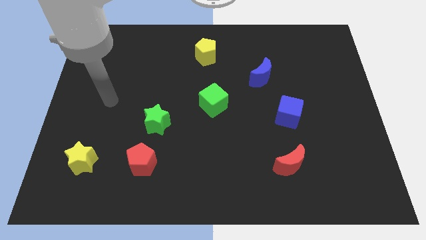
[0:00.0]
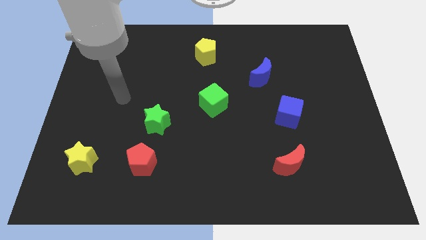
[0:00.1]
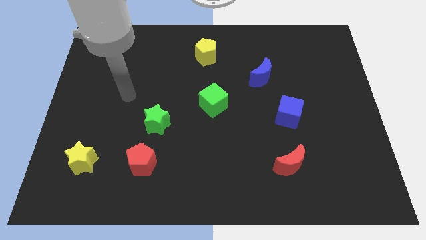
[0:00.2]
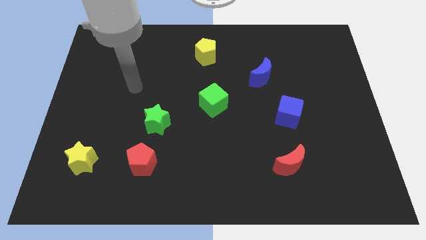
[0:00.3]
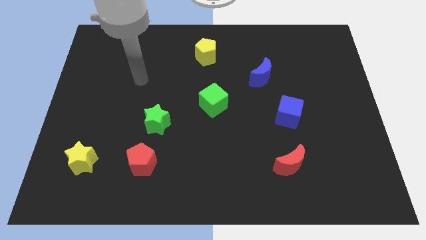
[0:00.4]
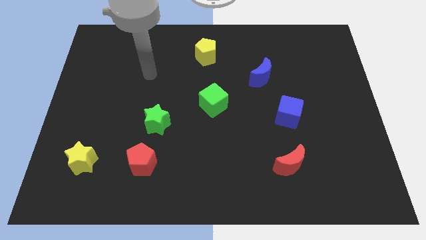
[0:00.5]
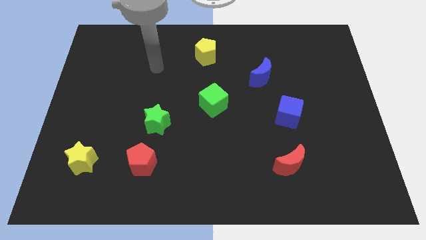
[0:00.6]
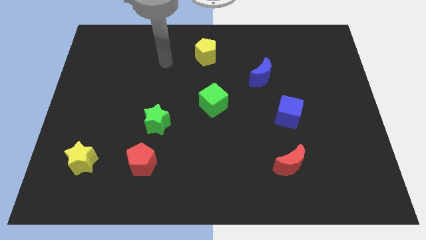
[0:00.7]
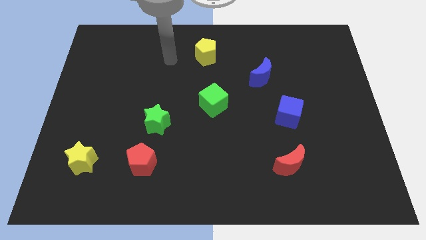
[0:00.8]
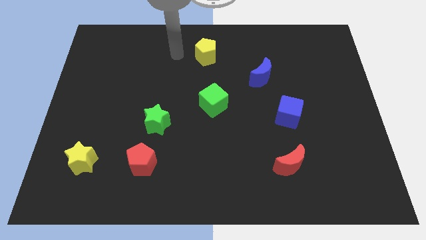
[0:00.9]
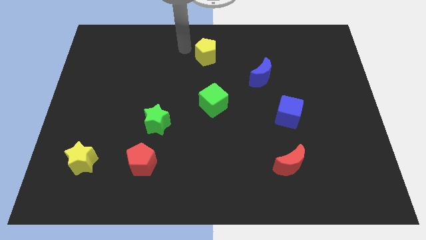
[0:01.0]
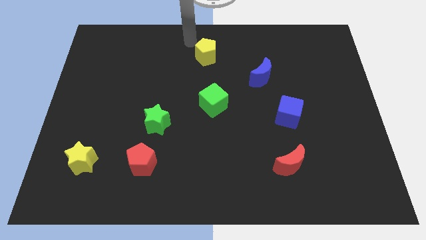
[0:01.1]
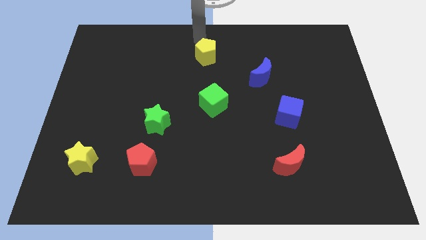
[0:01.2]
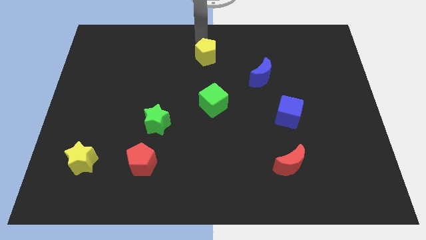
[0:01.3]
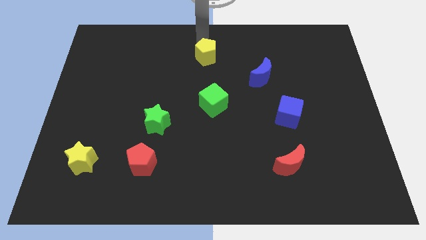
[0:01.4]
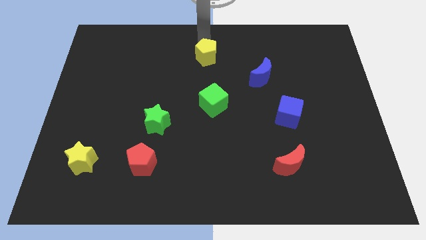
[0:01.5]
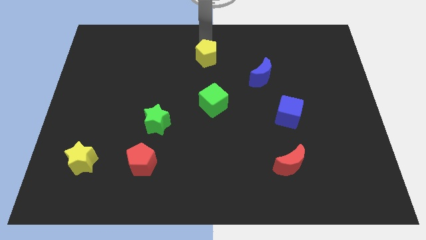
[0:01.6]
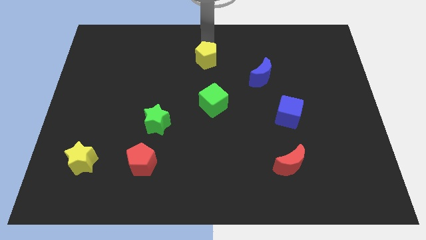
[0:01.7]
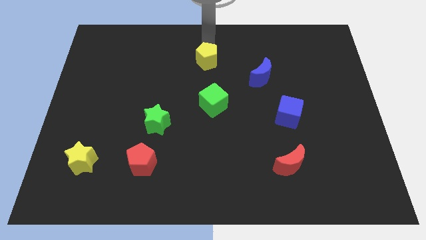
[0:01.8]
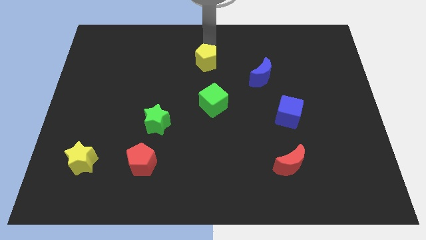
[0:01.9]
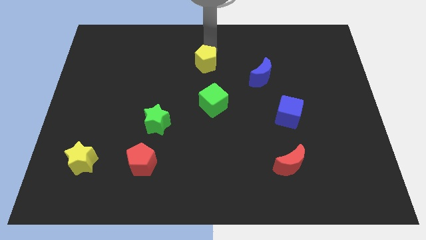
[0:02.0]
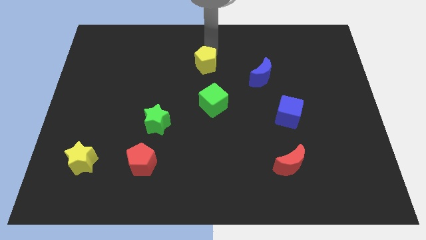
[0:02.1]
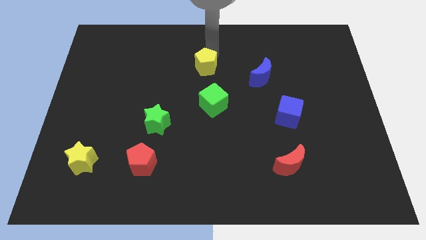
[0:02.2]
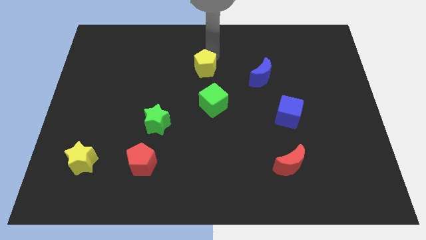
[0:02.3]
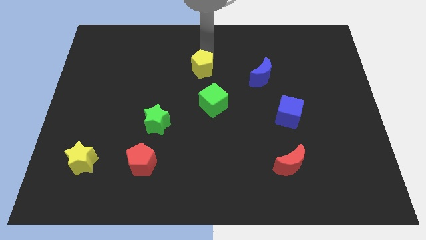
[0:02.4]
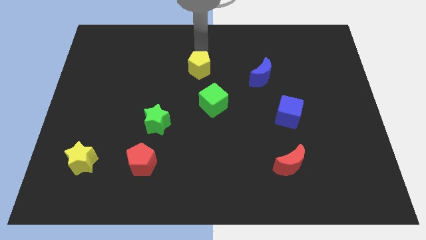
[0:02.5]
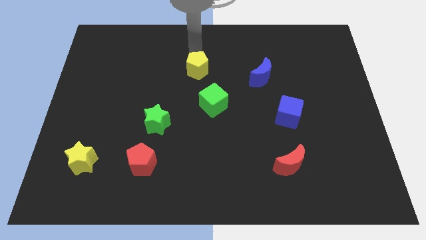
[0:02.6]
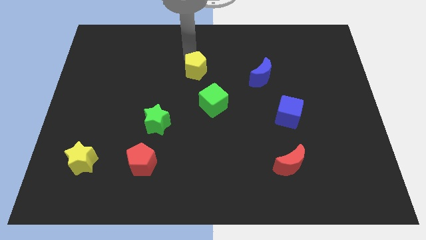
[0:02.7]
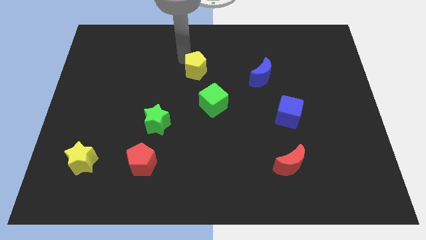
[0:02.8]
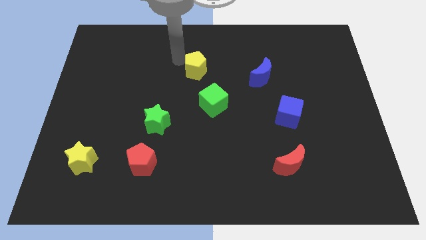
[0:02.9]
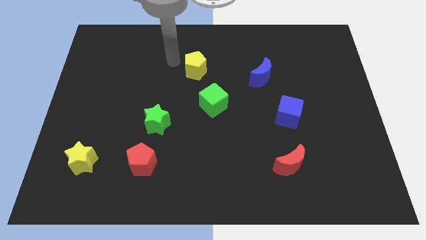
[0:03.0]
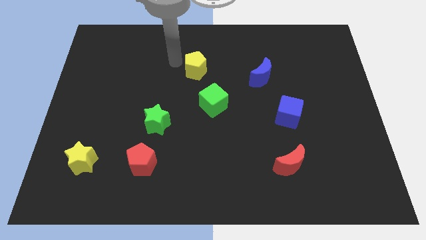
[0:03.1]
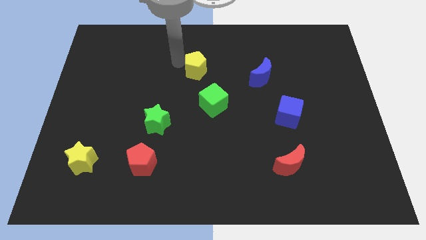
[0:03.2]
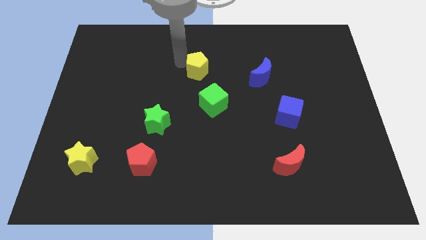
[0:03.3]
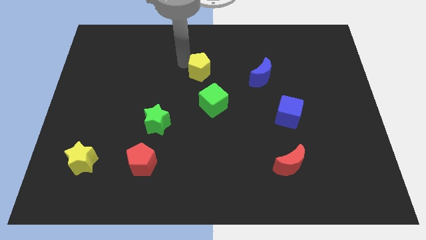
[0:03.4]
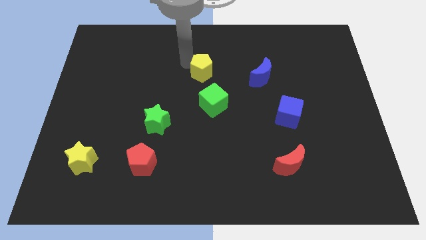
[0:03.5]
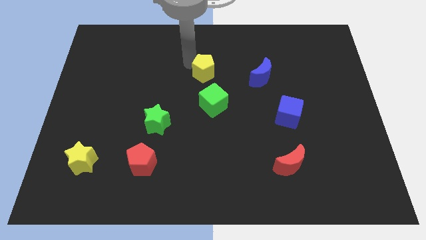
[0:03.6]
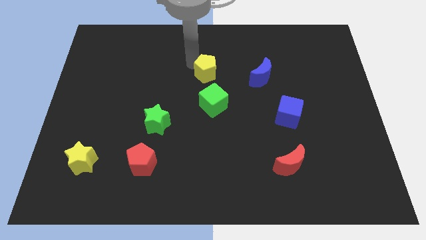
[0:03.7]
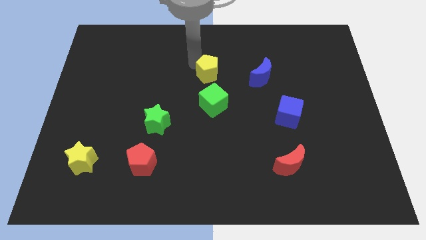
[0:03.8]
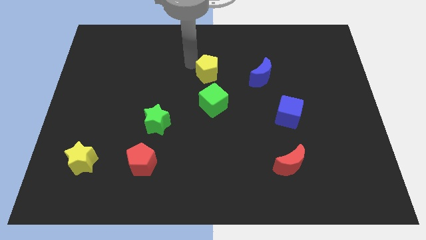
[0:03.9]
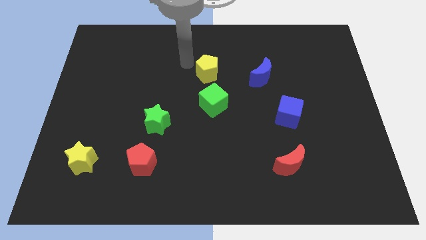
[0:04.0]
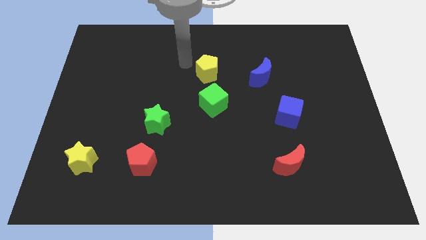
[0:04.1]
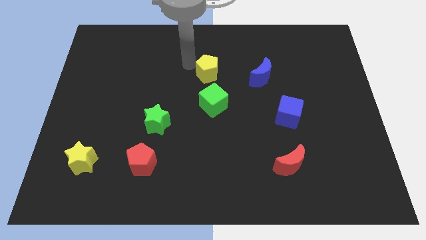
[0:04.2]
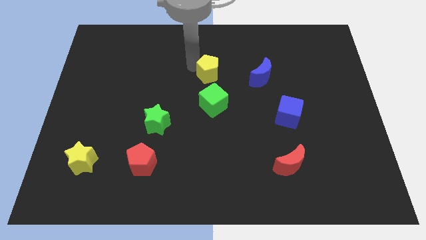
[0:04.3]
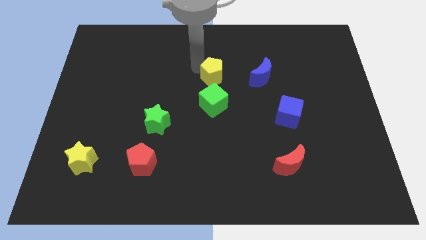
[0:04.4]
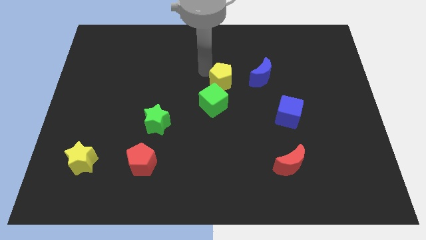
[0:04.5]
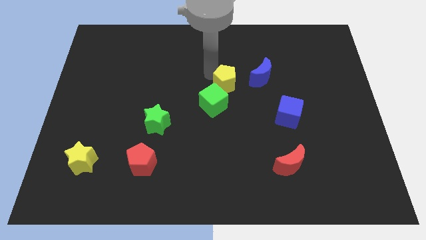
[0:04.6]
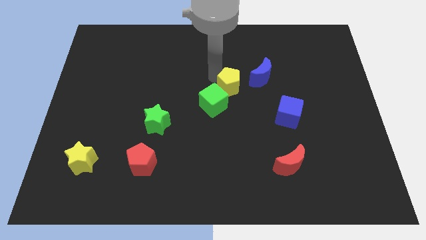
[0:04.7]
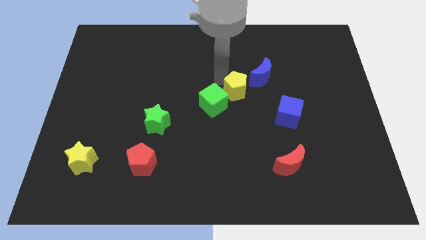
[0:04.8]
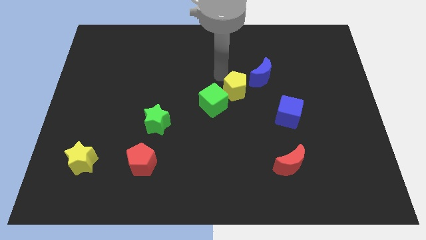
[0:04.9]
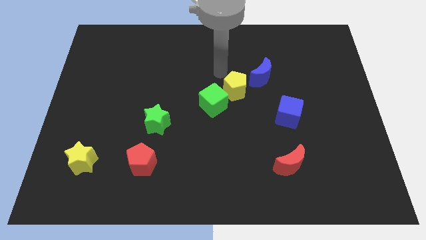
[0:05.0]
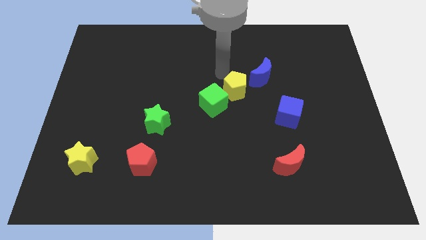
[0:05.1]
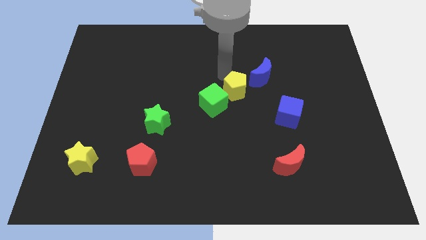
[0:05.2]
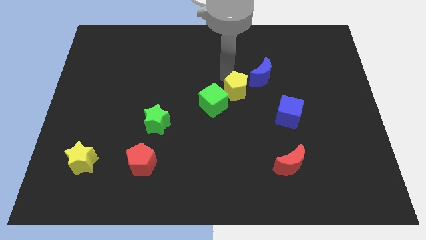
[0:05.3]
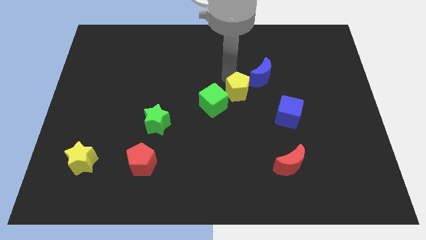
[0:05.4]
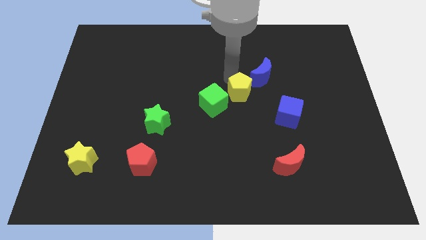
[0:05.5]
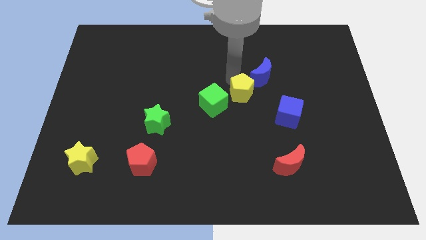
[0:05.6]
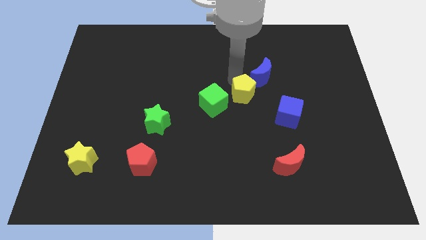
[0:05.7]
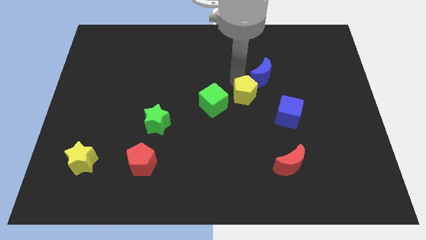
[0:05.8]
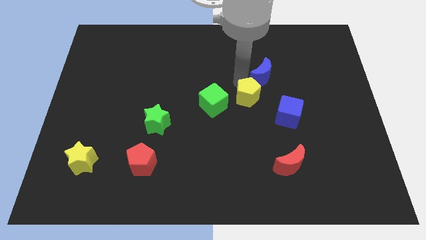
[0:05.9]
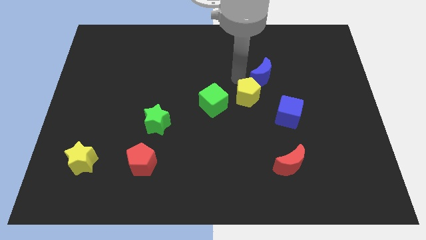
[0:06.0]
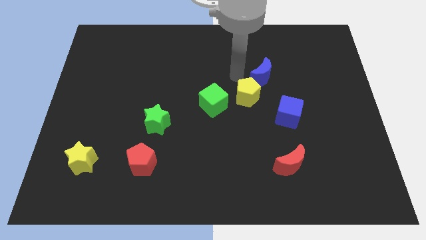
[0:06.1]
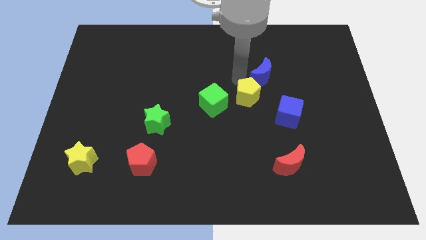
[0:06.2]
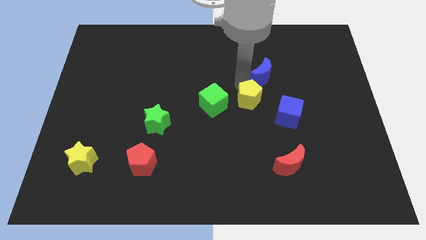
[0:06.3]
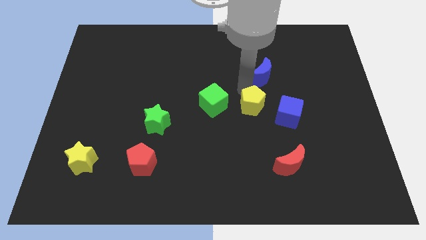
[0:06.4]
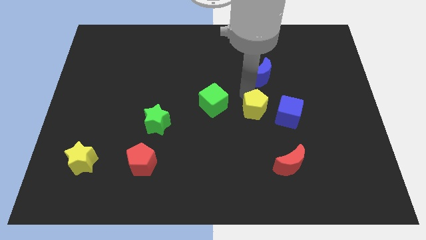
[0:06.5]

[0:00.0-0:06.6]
slide the yellow pentagon downwards and then right

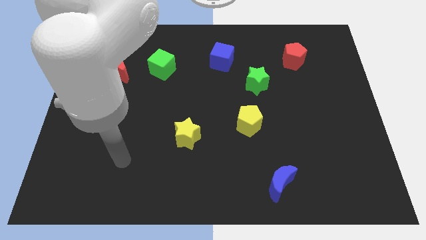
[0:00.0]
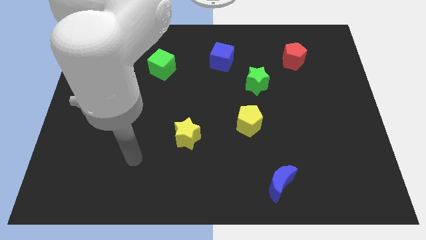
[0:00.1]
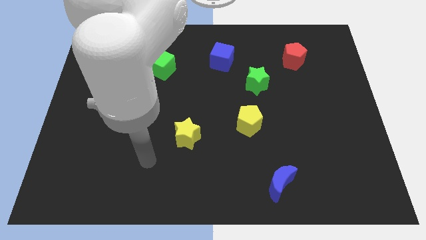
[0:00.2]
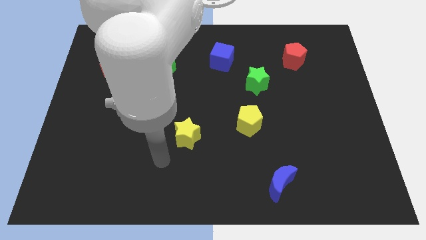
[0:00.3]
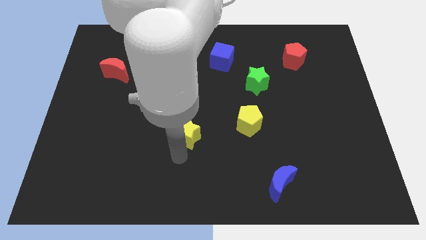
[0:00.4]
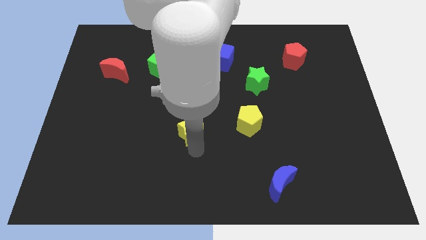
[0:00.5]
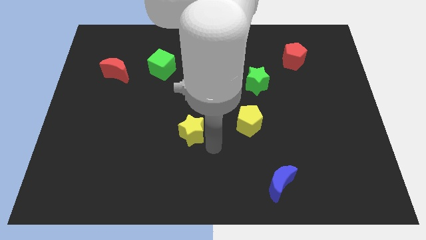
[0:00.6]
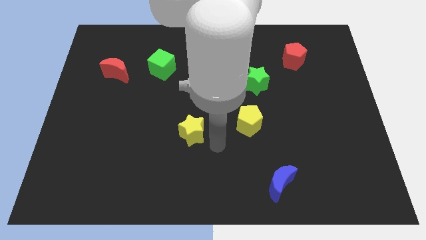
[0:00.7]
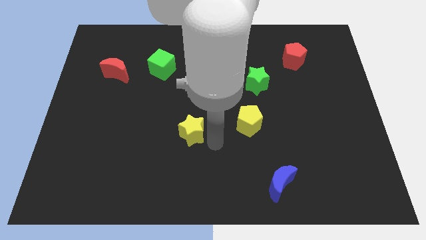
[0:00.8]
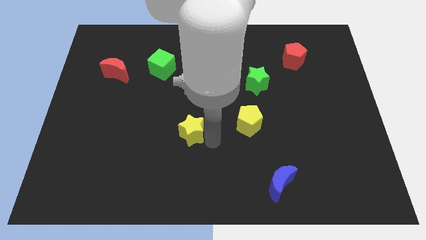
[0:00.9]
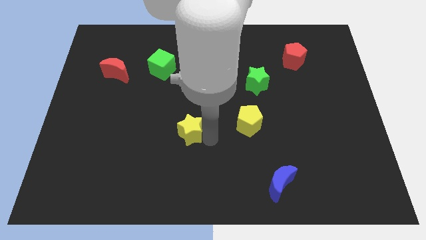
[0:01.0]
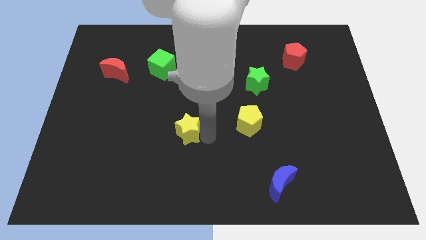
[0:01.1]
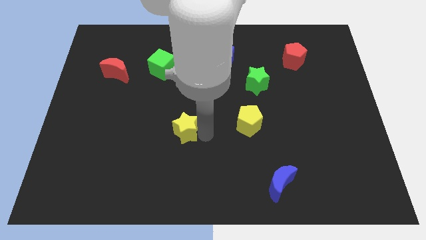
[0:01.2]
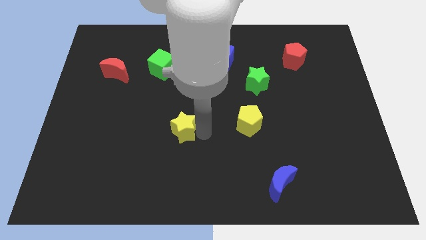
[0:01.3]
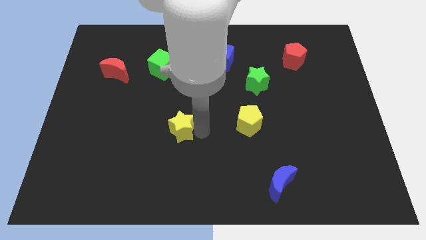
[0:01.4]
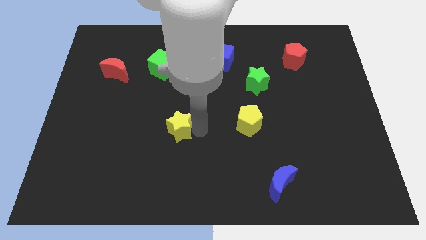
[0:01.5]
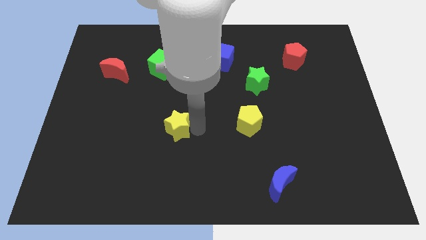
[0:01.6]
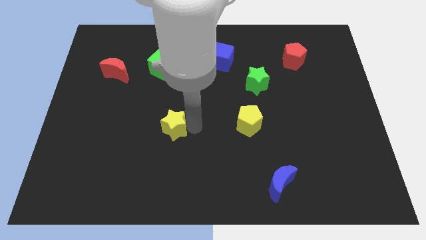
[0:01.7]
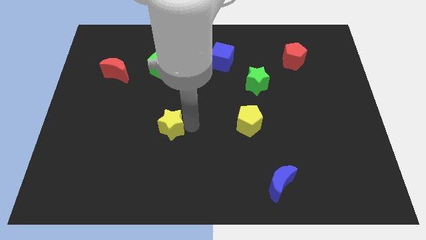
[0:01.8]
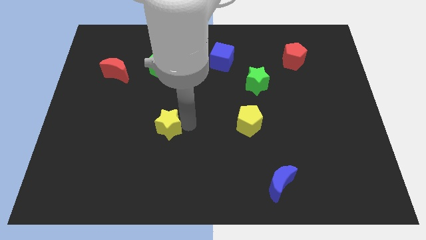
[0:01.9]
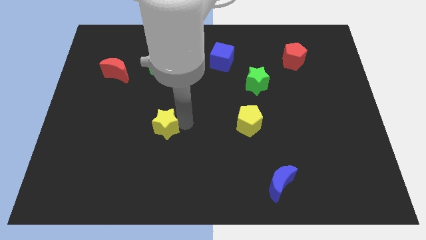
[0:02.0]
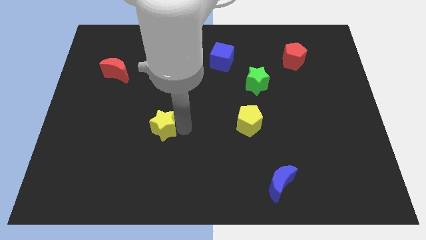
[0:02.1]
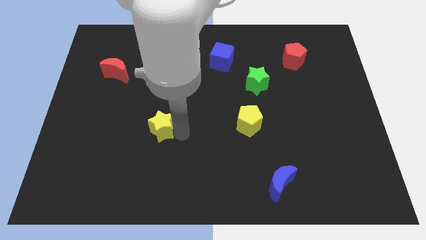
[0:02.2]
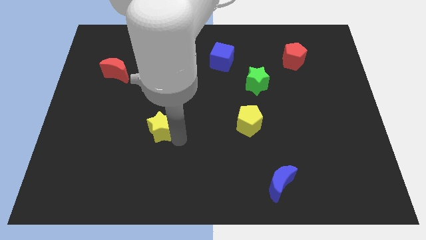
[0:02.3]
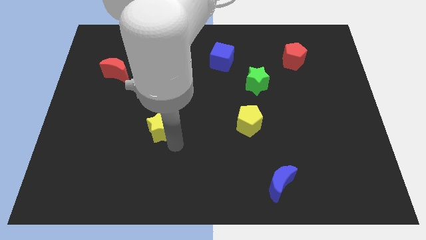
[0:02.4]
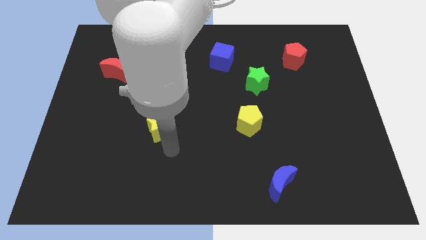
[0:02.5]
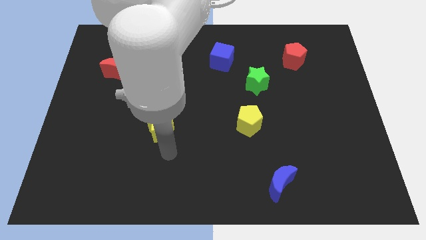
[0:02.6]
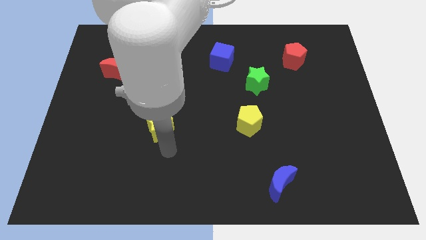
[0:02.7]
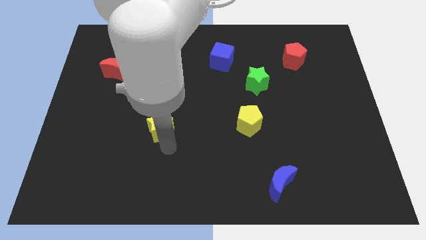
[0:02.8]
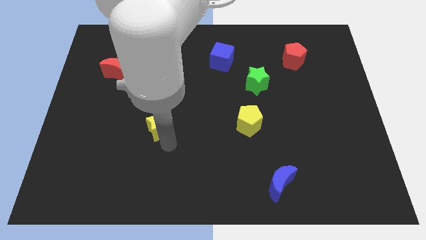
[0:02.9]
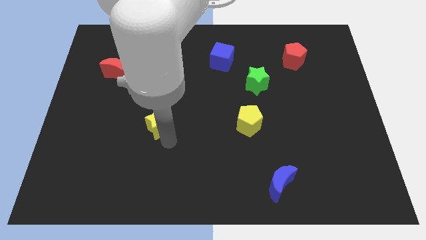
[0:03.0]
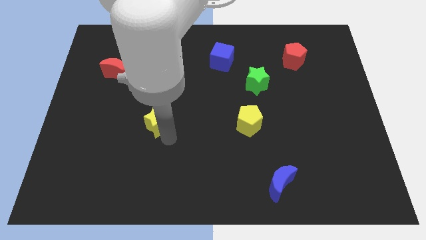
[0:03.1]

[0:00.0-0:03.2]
slide the yellow star upwards and then to the left slightly
